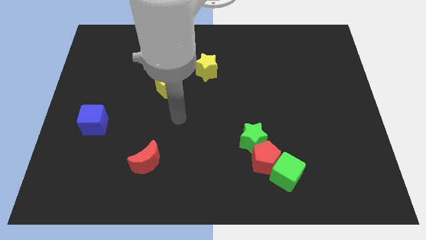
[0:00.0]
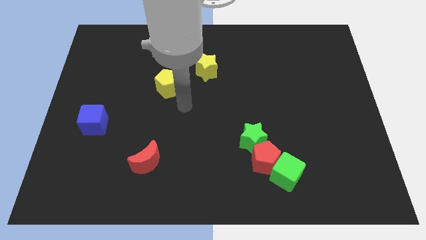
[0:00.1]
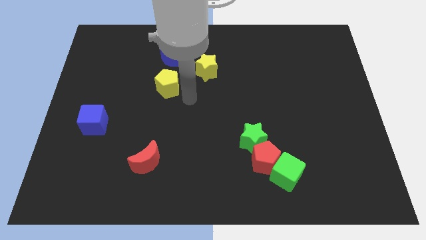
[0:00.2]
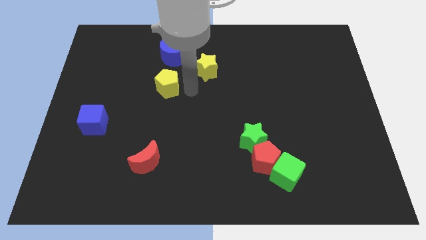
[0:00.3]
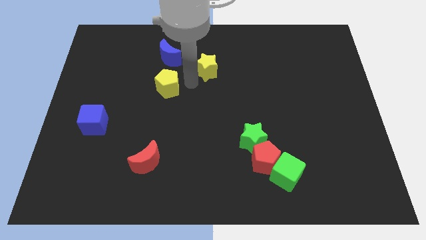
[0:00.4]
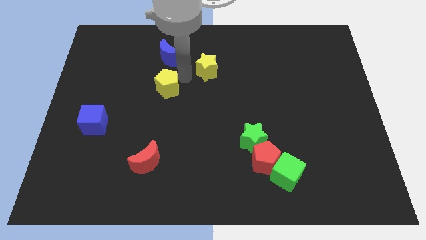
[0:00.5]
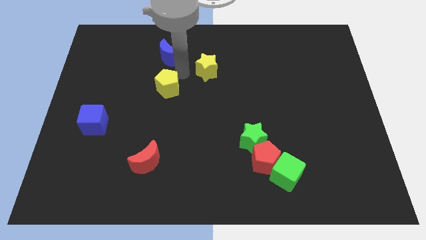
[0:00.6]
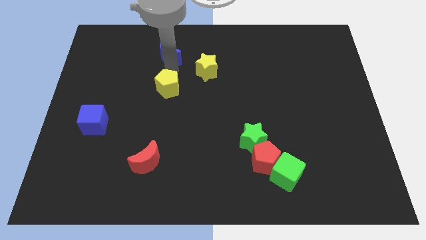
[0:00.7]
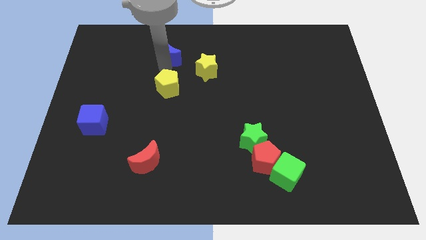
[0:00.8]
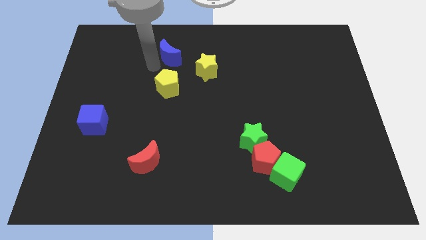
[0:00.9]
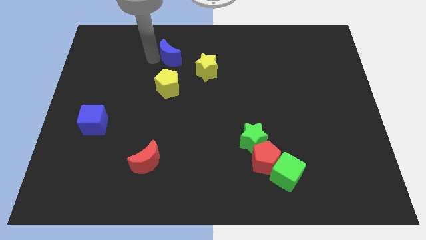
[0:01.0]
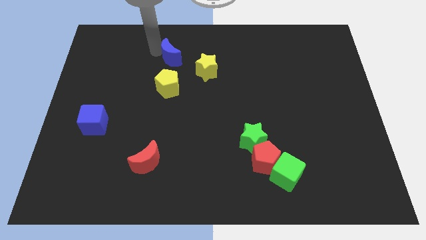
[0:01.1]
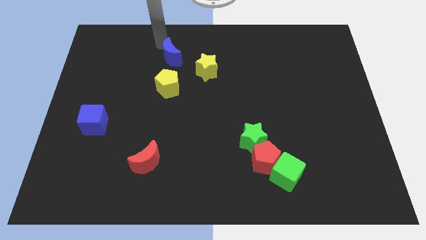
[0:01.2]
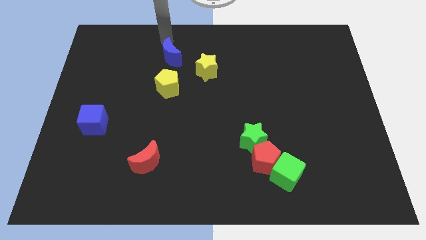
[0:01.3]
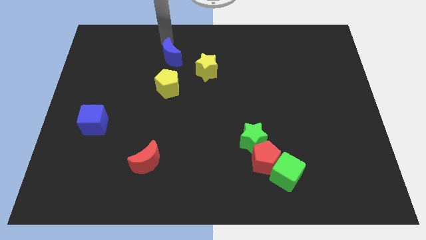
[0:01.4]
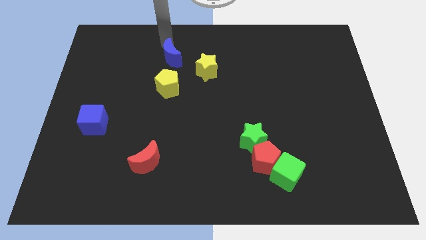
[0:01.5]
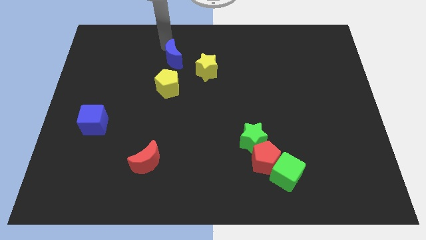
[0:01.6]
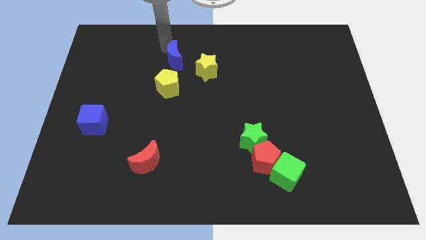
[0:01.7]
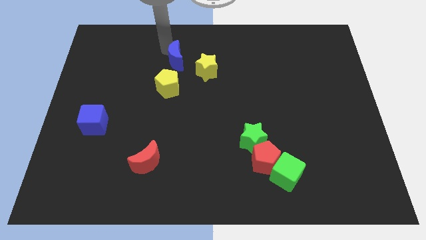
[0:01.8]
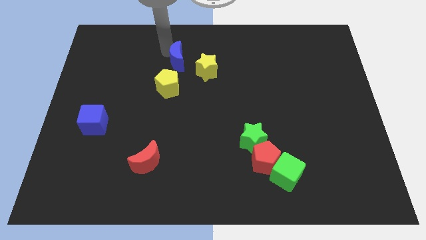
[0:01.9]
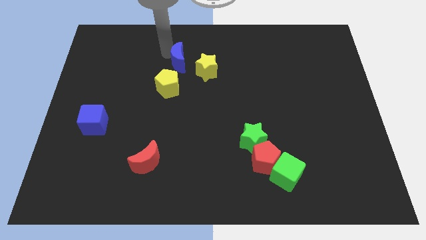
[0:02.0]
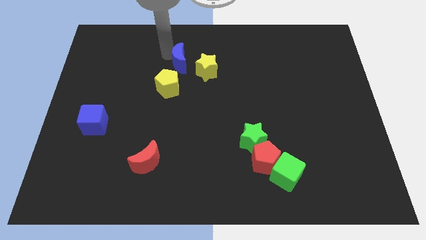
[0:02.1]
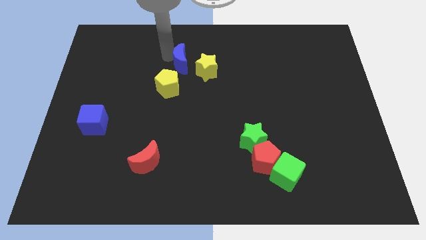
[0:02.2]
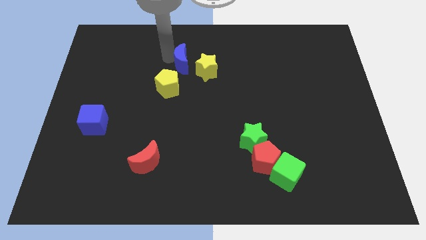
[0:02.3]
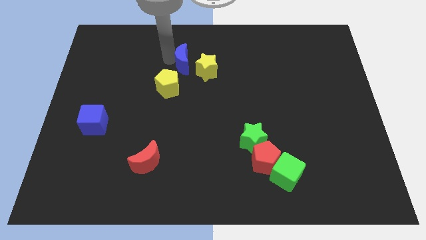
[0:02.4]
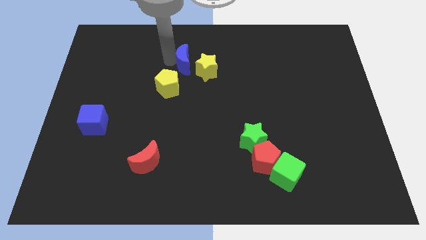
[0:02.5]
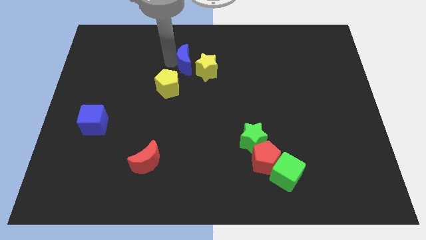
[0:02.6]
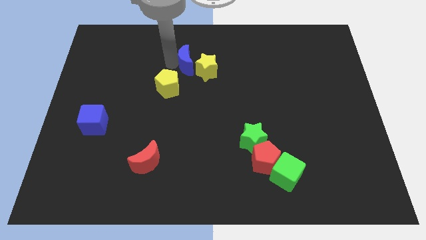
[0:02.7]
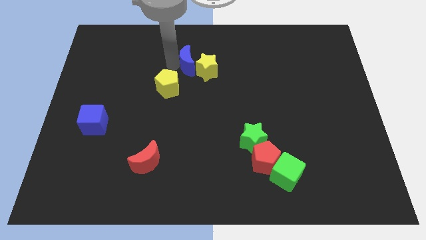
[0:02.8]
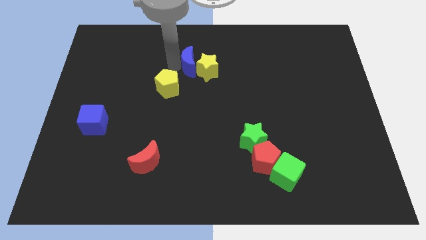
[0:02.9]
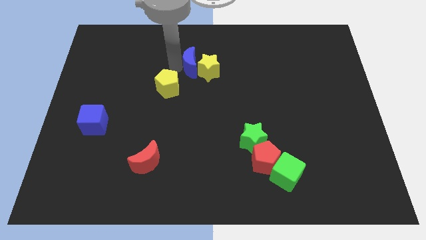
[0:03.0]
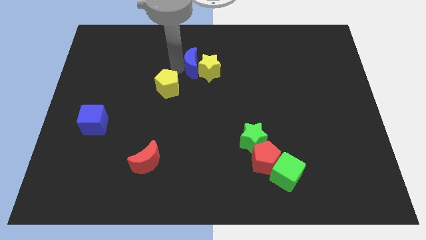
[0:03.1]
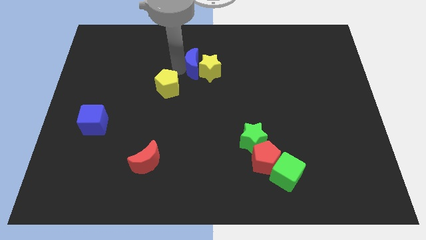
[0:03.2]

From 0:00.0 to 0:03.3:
move the blue moon downwards and right slightly

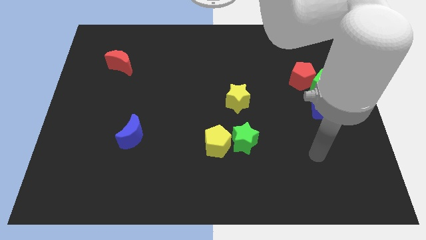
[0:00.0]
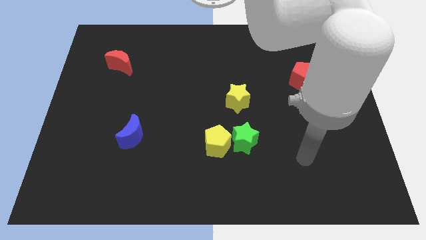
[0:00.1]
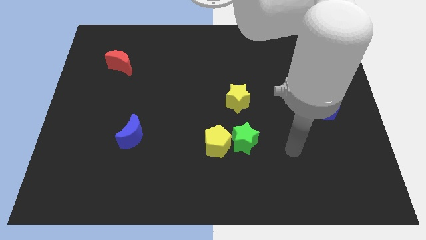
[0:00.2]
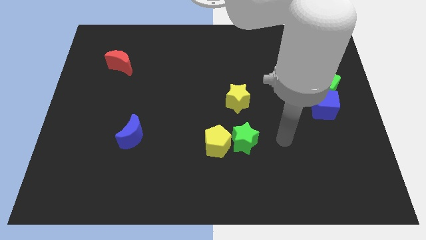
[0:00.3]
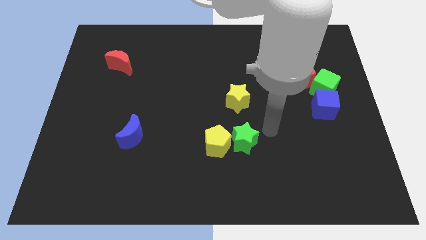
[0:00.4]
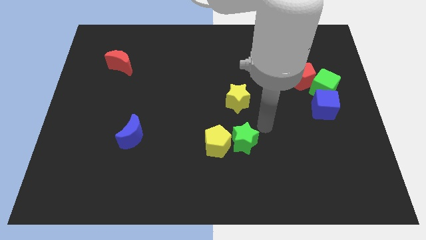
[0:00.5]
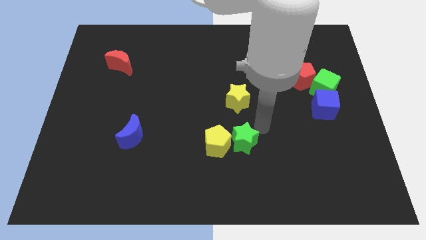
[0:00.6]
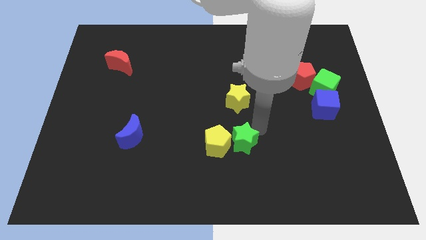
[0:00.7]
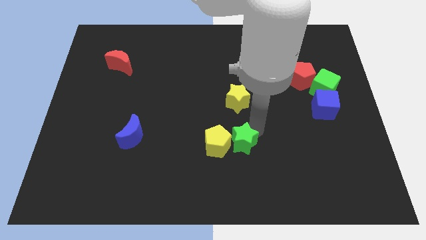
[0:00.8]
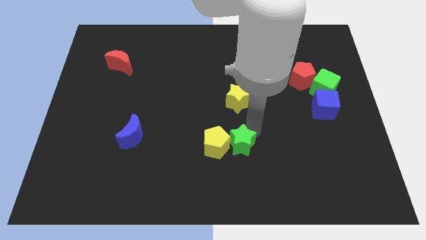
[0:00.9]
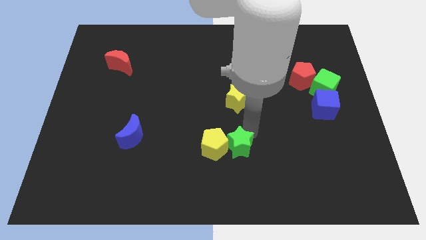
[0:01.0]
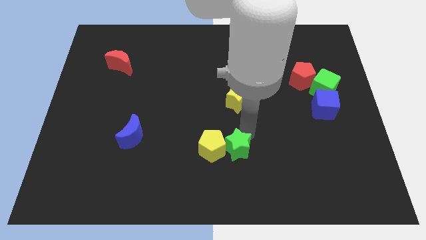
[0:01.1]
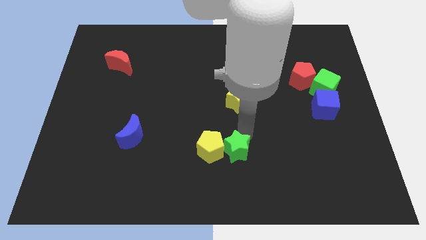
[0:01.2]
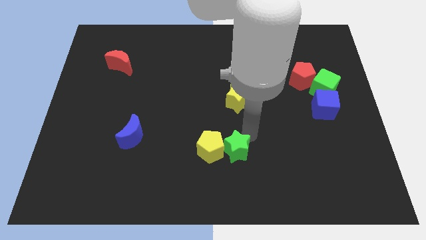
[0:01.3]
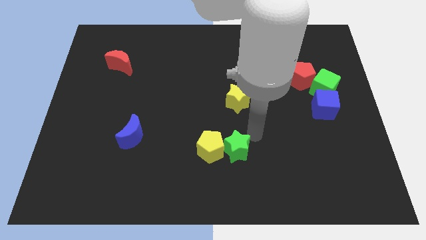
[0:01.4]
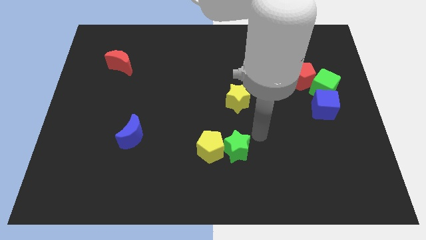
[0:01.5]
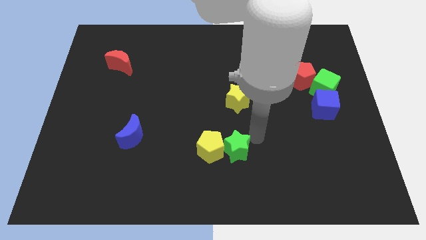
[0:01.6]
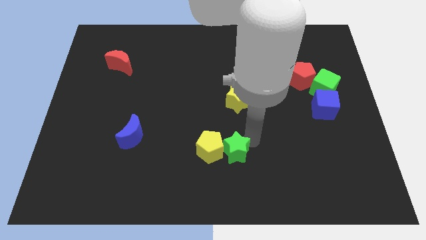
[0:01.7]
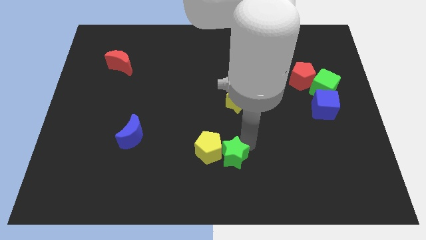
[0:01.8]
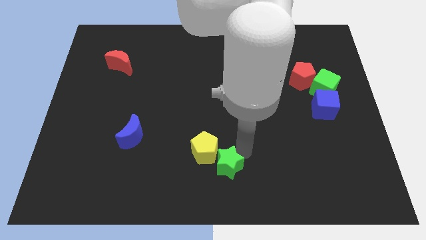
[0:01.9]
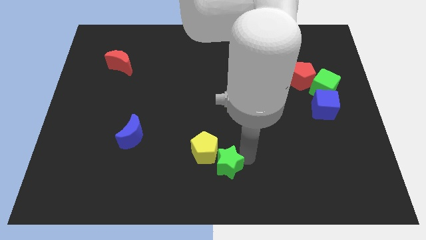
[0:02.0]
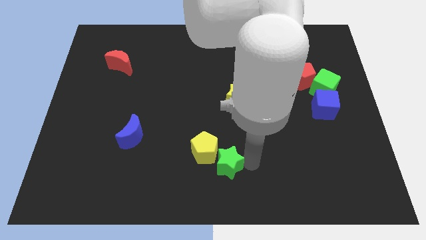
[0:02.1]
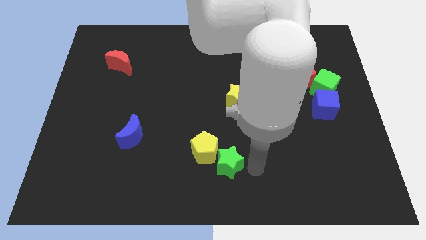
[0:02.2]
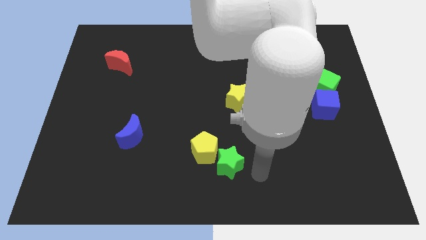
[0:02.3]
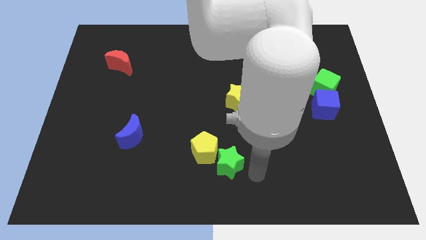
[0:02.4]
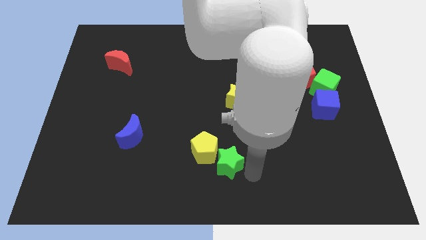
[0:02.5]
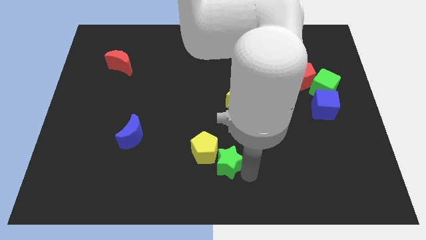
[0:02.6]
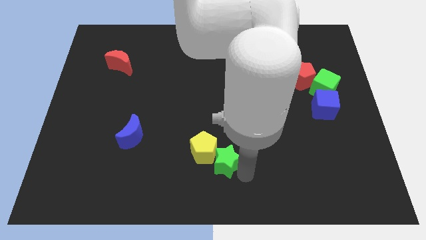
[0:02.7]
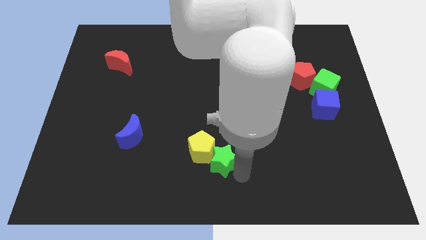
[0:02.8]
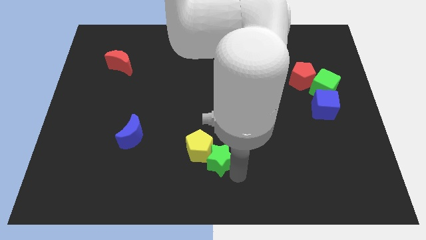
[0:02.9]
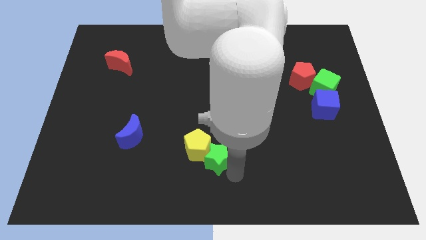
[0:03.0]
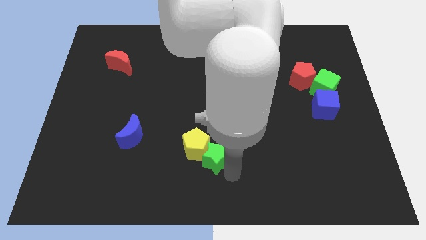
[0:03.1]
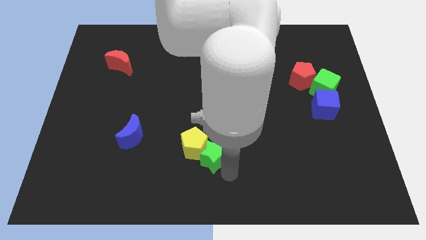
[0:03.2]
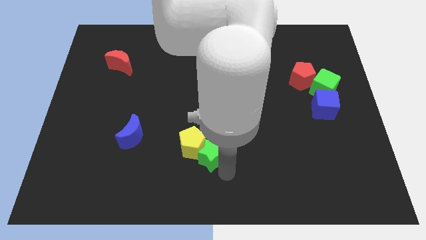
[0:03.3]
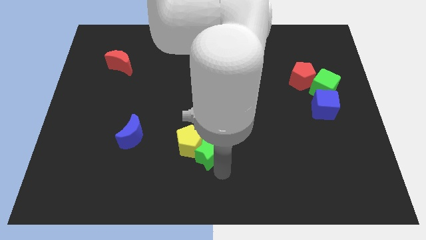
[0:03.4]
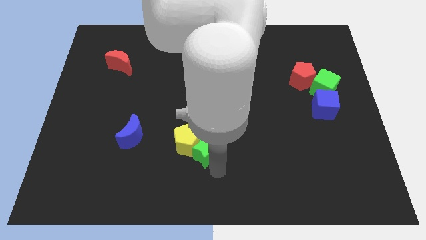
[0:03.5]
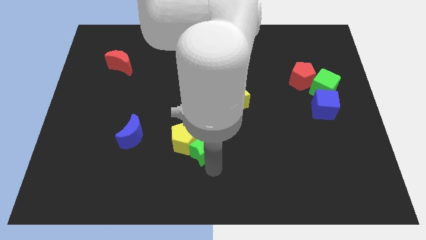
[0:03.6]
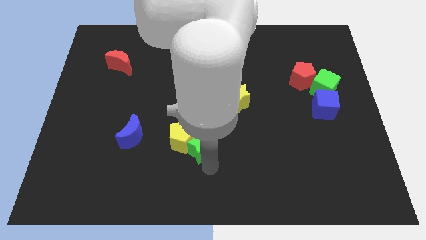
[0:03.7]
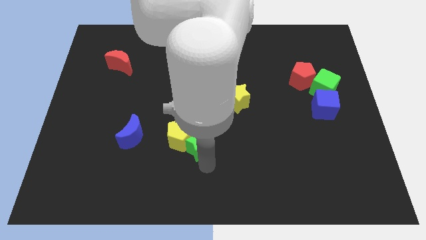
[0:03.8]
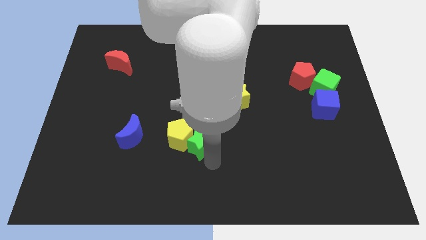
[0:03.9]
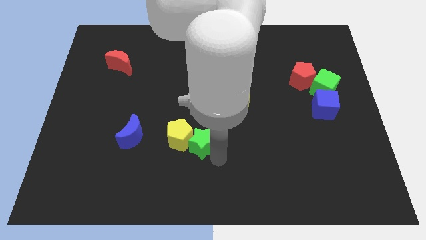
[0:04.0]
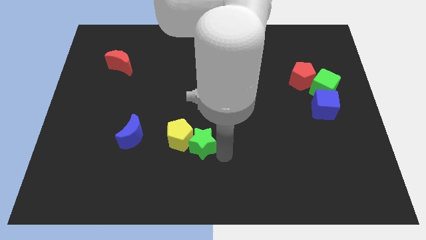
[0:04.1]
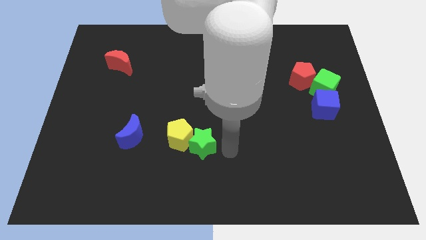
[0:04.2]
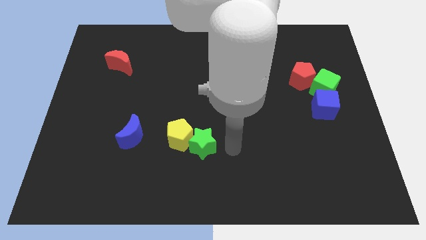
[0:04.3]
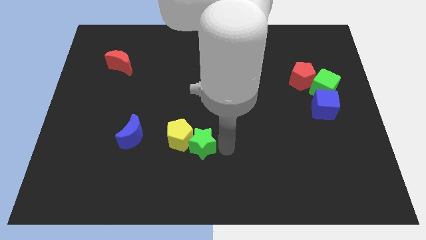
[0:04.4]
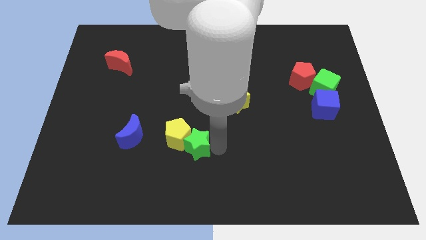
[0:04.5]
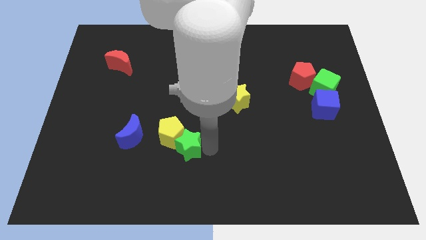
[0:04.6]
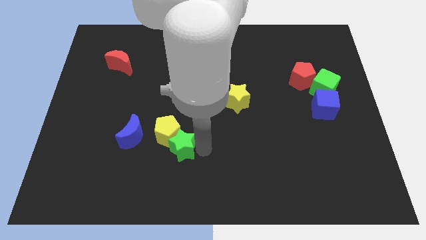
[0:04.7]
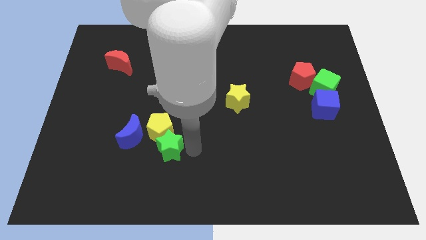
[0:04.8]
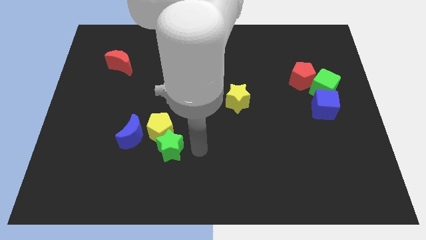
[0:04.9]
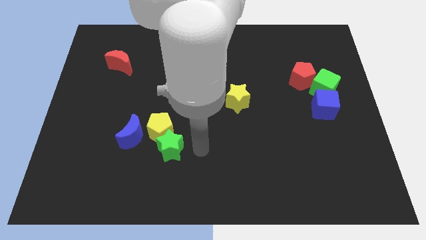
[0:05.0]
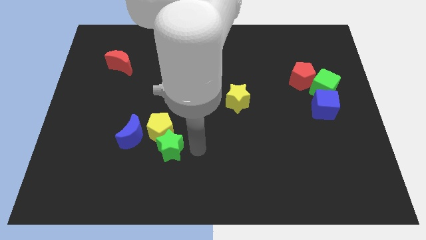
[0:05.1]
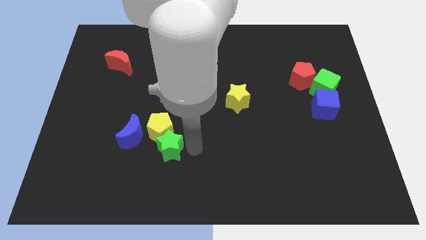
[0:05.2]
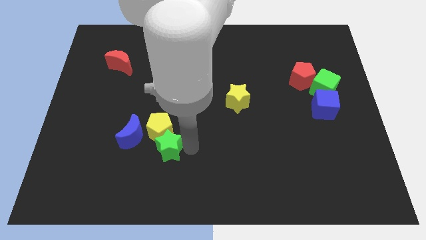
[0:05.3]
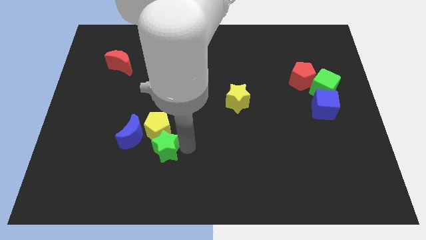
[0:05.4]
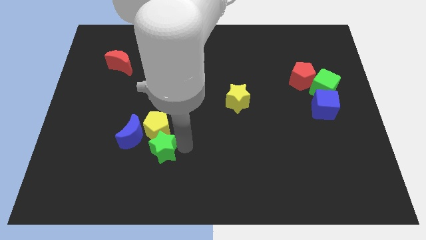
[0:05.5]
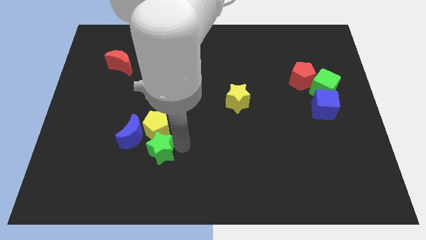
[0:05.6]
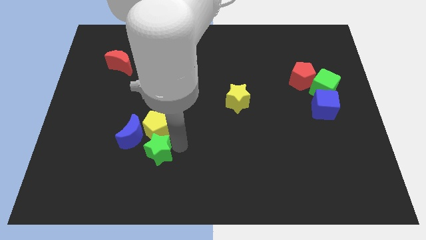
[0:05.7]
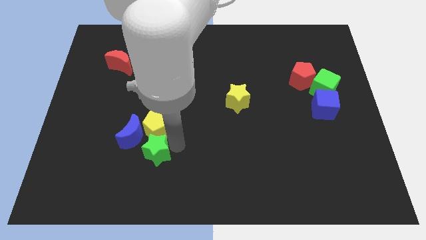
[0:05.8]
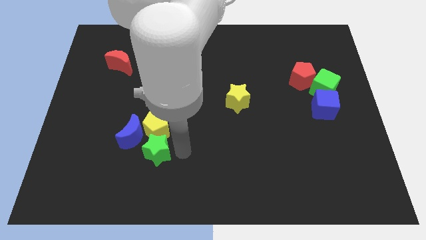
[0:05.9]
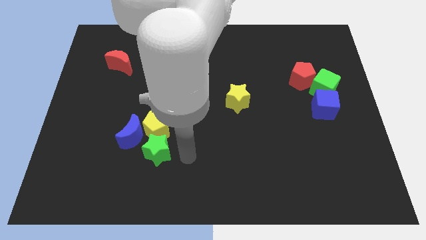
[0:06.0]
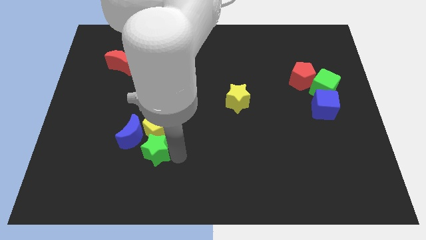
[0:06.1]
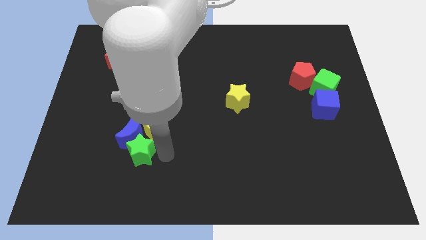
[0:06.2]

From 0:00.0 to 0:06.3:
push the green star to the left
